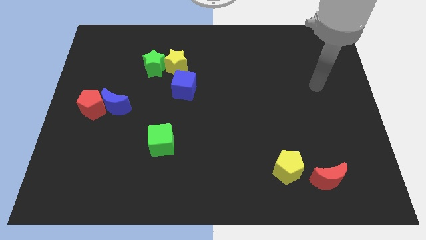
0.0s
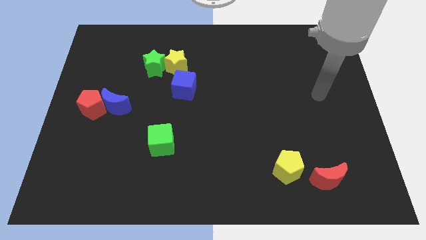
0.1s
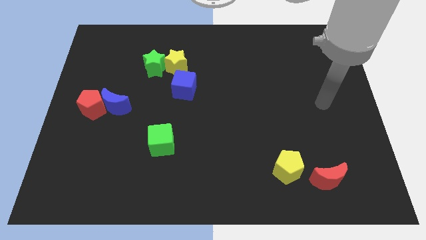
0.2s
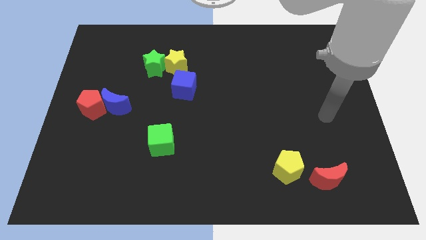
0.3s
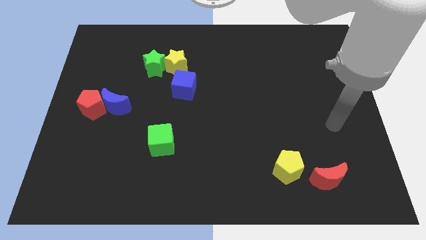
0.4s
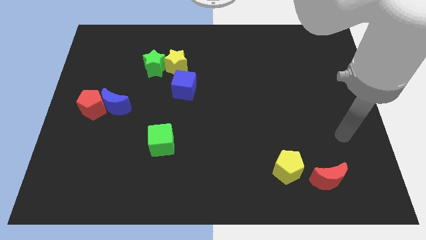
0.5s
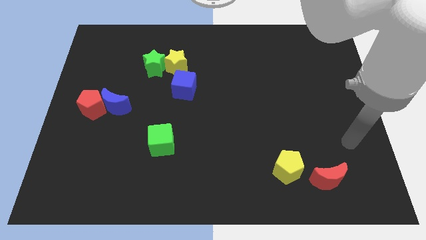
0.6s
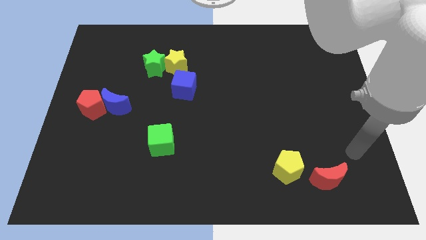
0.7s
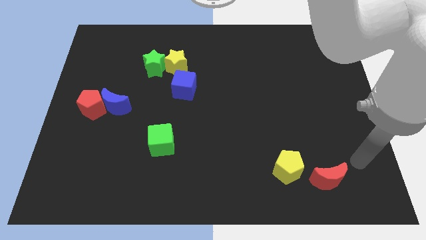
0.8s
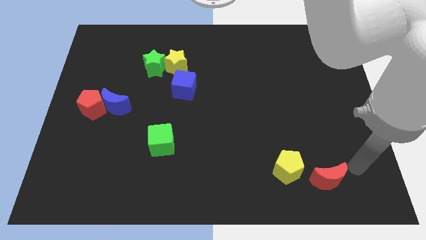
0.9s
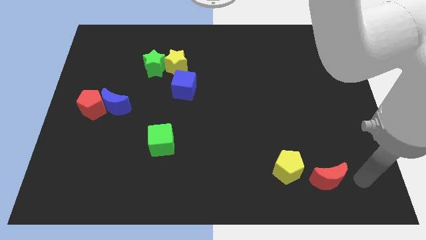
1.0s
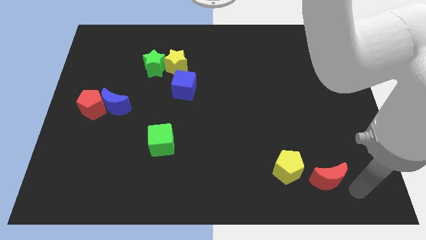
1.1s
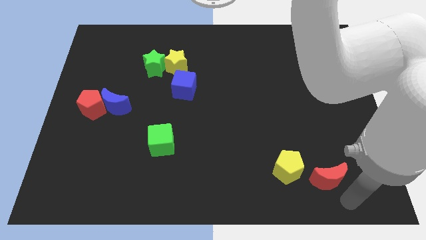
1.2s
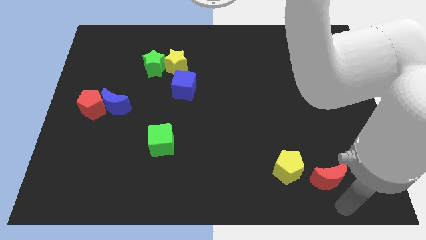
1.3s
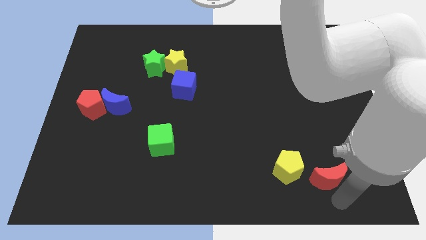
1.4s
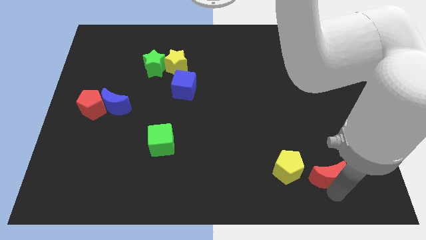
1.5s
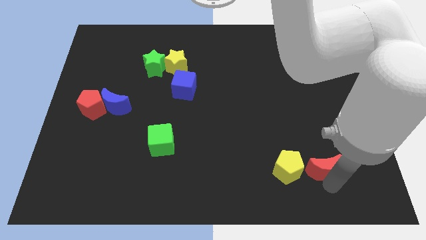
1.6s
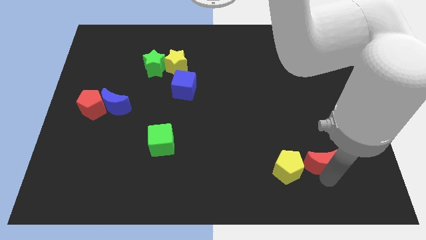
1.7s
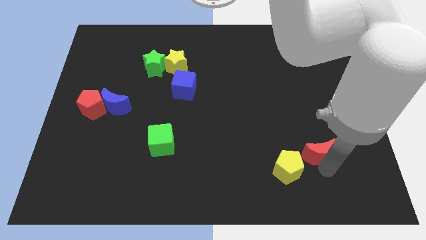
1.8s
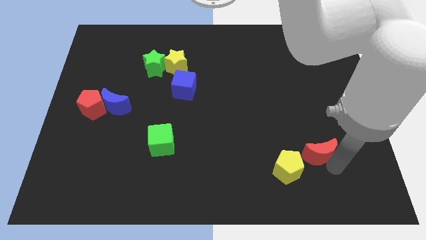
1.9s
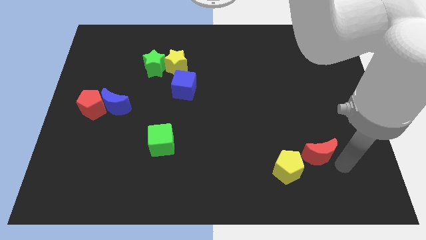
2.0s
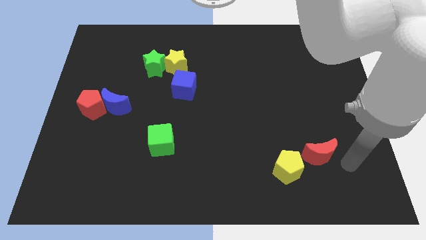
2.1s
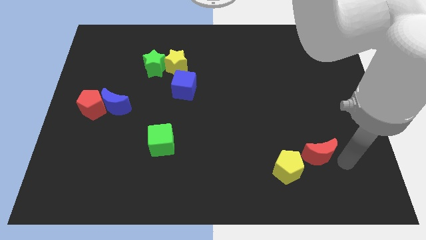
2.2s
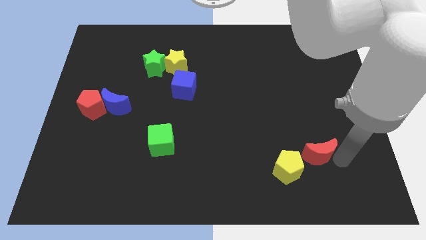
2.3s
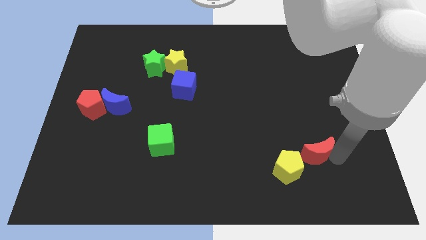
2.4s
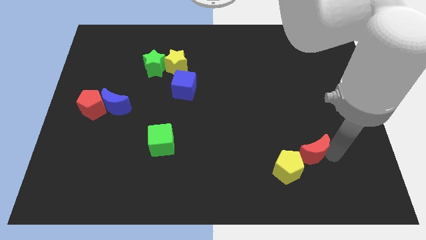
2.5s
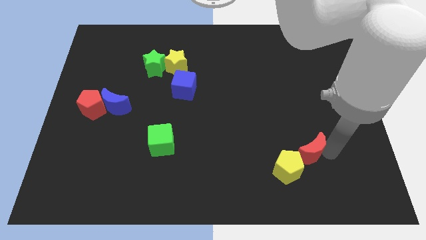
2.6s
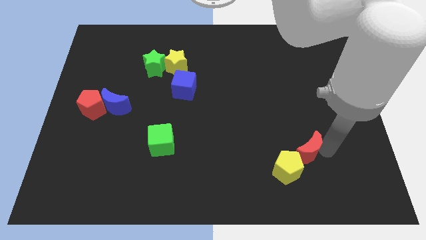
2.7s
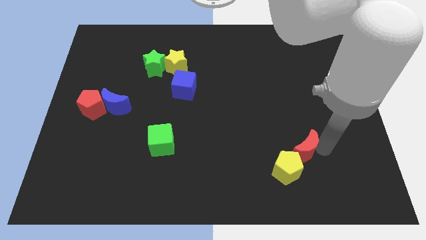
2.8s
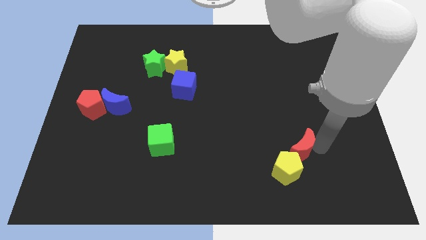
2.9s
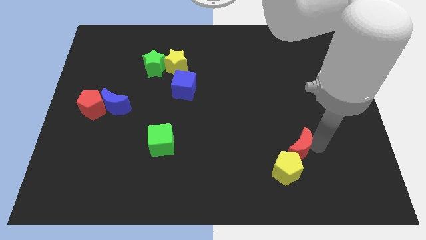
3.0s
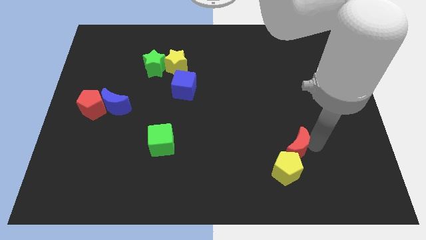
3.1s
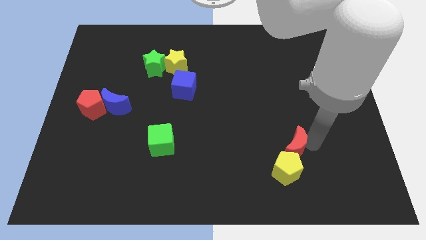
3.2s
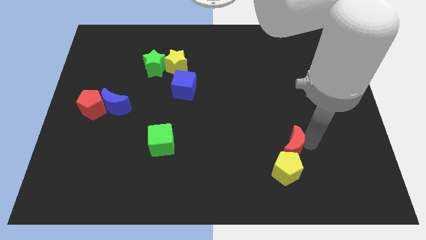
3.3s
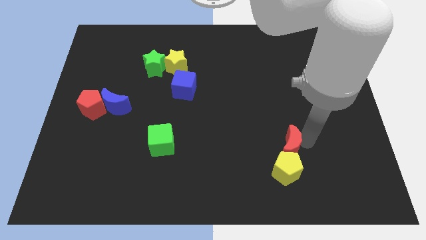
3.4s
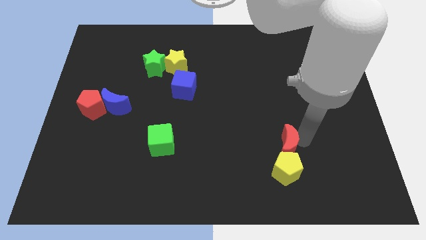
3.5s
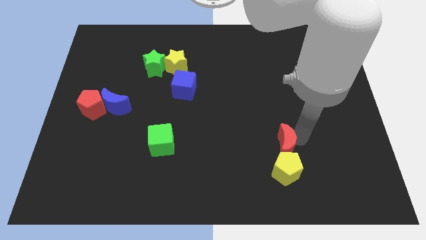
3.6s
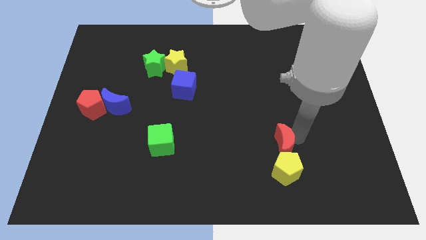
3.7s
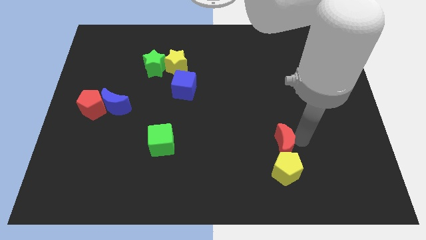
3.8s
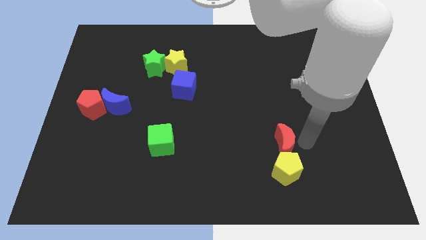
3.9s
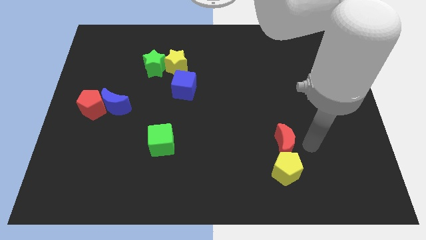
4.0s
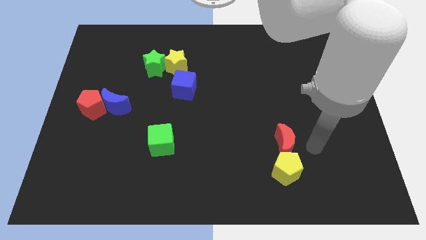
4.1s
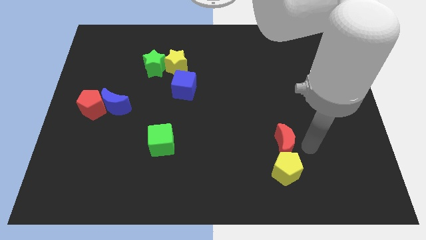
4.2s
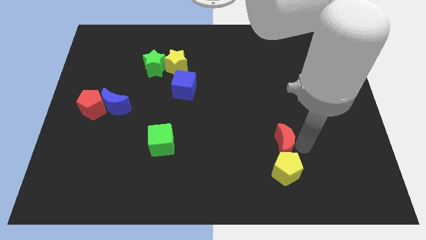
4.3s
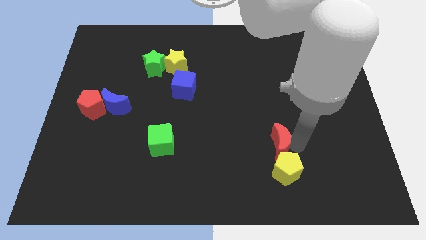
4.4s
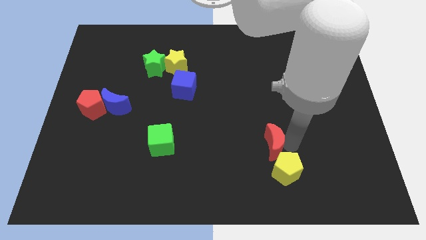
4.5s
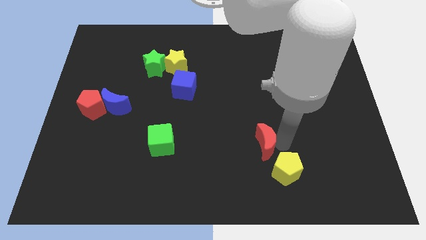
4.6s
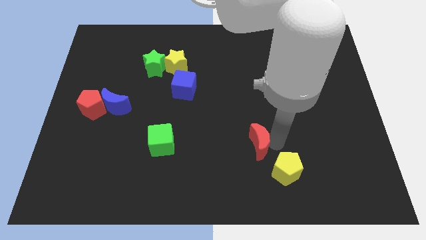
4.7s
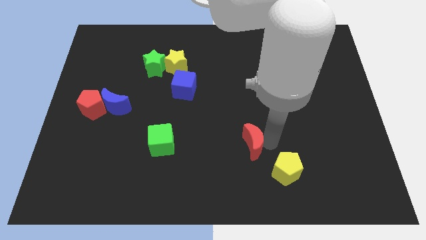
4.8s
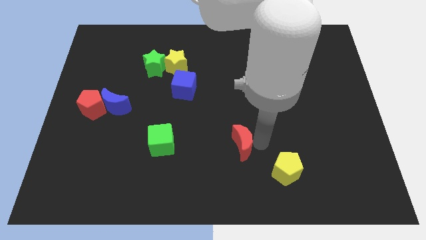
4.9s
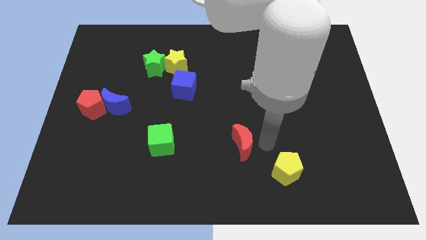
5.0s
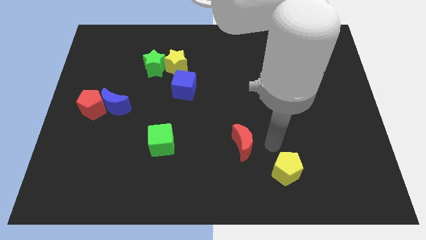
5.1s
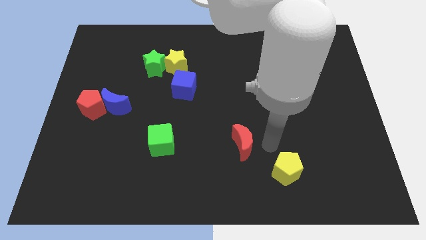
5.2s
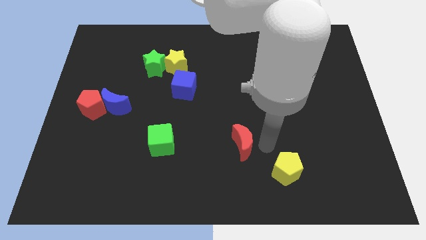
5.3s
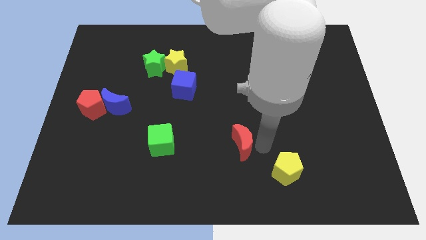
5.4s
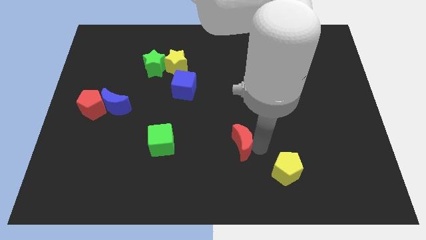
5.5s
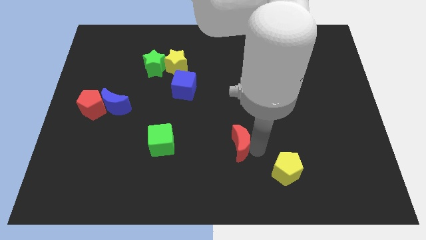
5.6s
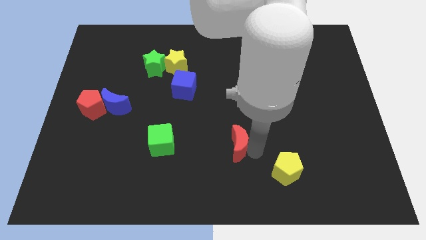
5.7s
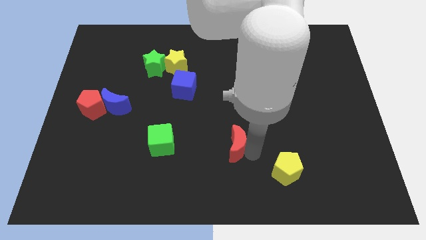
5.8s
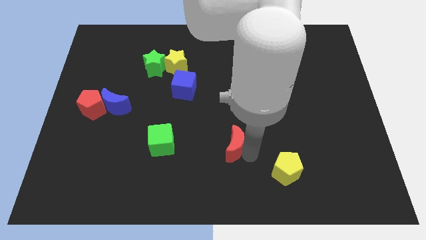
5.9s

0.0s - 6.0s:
push the red moon to the right side of the green cube
